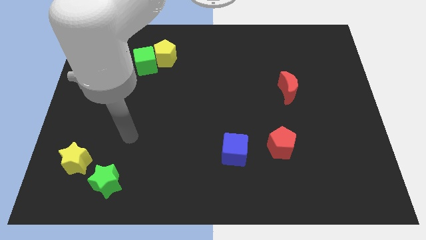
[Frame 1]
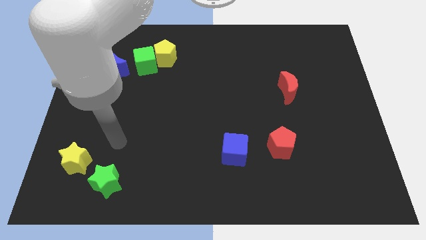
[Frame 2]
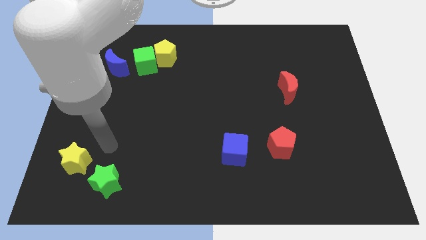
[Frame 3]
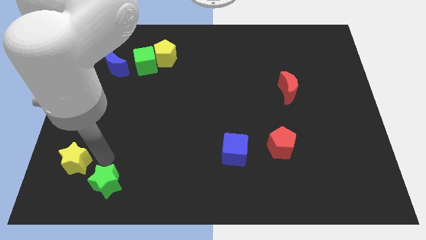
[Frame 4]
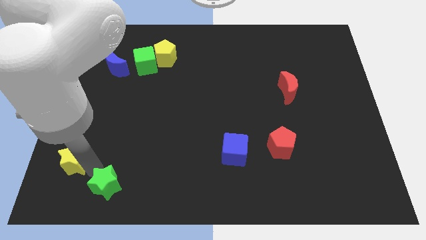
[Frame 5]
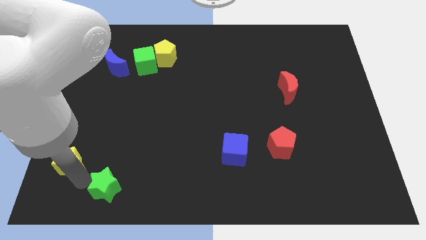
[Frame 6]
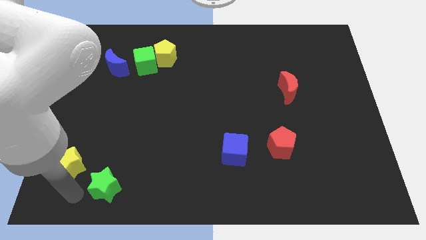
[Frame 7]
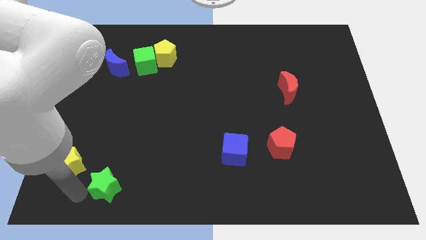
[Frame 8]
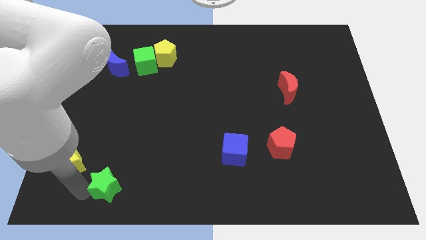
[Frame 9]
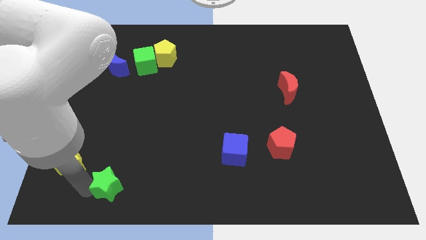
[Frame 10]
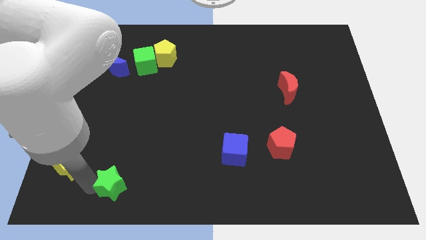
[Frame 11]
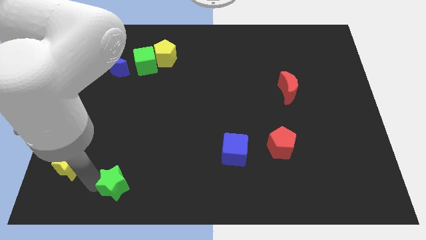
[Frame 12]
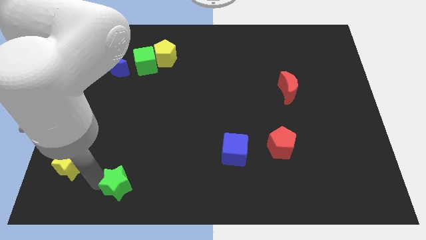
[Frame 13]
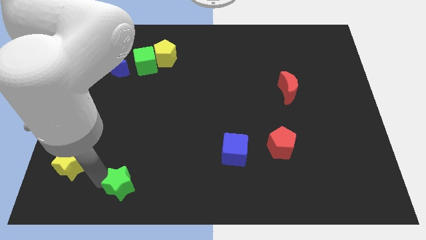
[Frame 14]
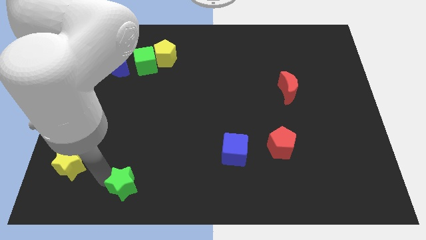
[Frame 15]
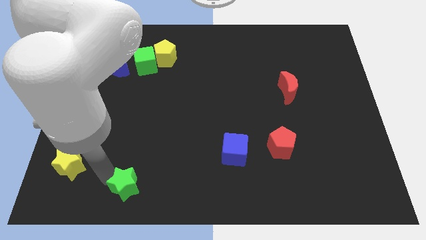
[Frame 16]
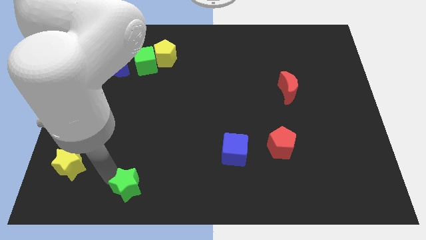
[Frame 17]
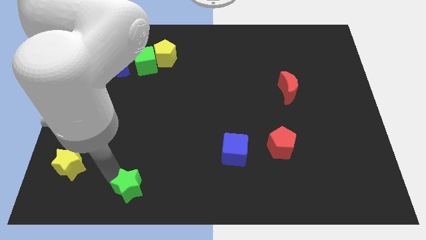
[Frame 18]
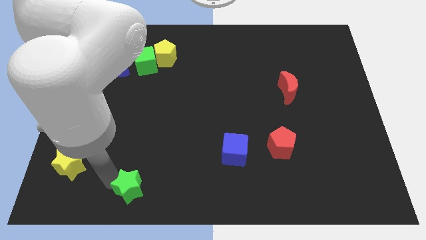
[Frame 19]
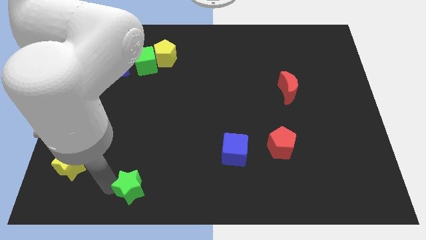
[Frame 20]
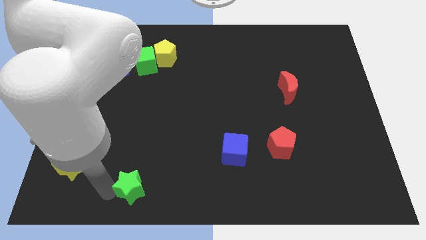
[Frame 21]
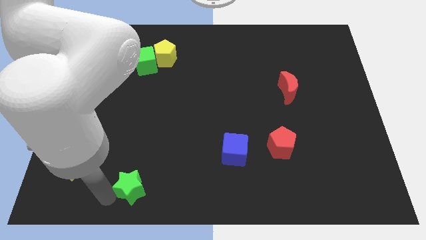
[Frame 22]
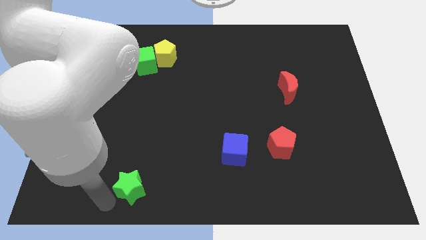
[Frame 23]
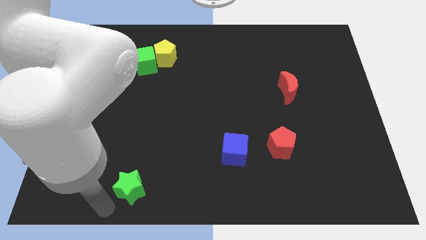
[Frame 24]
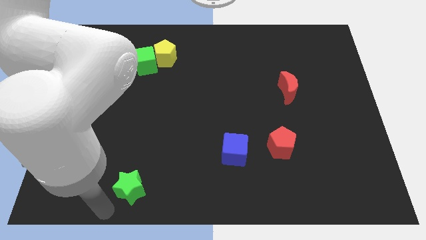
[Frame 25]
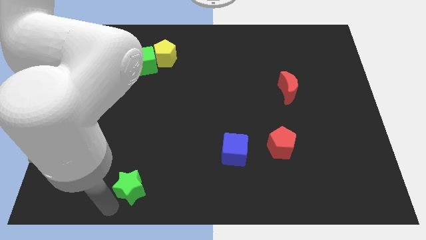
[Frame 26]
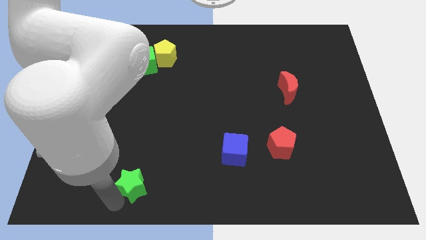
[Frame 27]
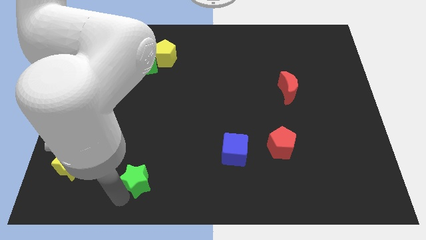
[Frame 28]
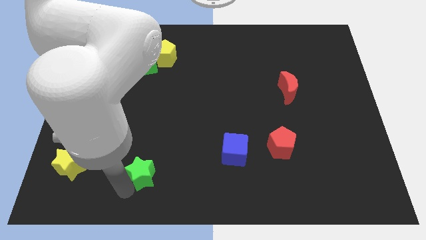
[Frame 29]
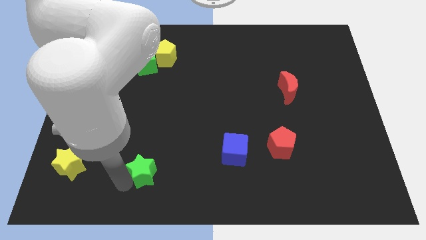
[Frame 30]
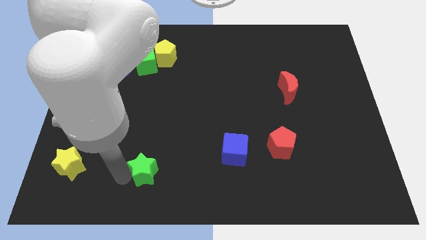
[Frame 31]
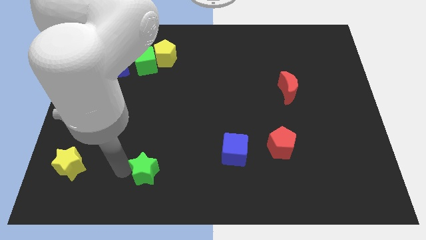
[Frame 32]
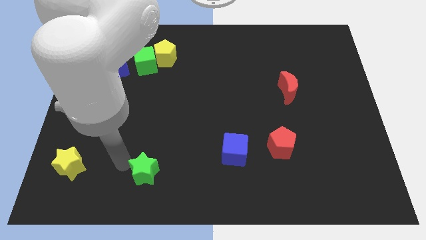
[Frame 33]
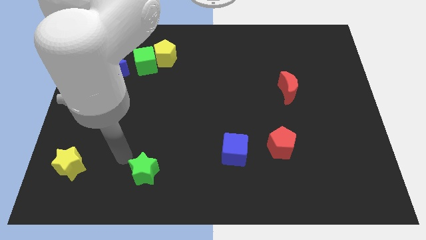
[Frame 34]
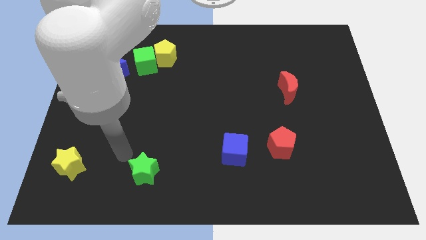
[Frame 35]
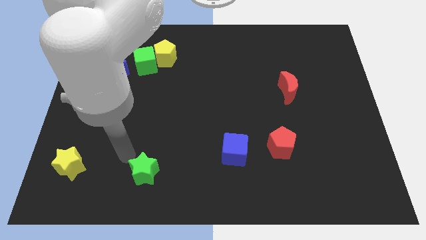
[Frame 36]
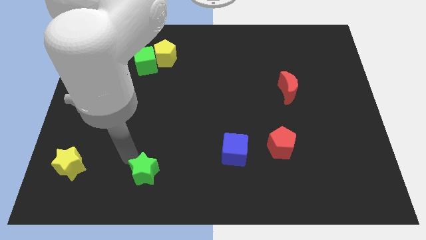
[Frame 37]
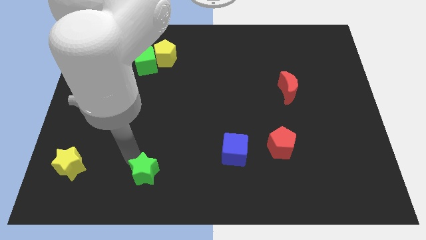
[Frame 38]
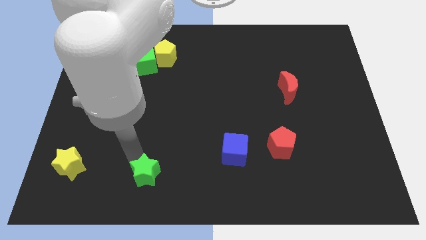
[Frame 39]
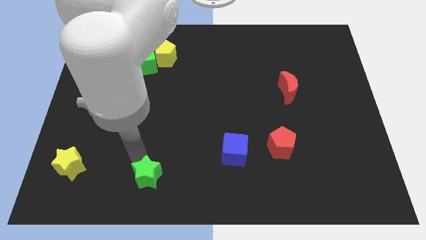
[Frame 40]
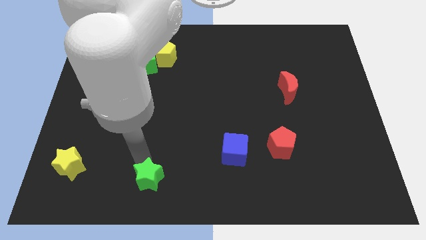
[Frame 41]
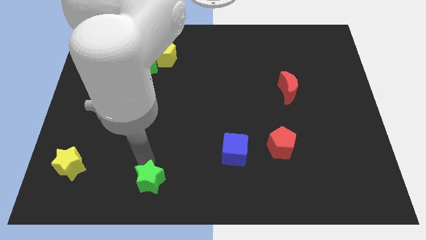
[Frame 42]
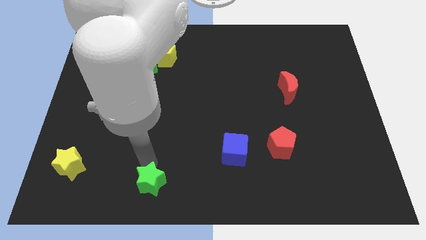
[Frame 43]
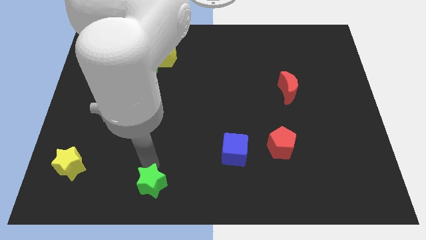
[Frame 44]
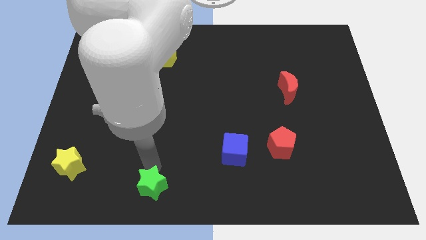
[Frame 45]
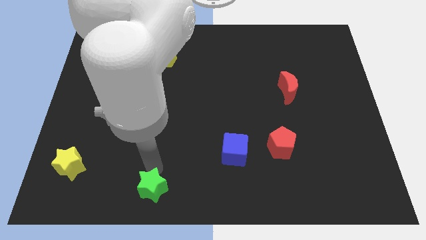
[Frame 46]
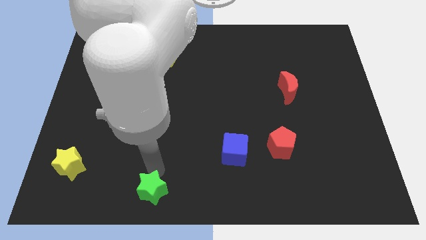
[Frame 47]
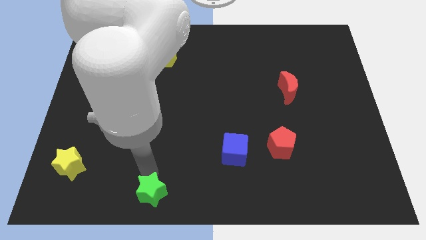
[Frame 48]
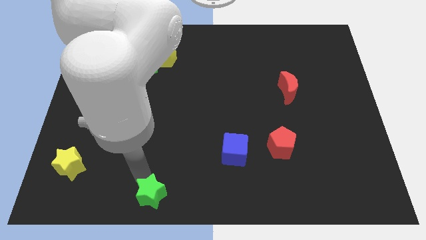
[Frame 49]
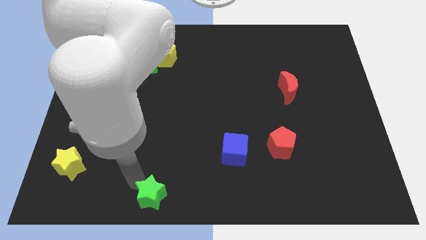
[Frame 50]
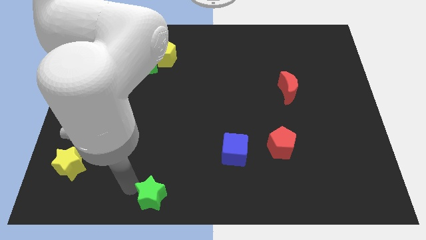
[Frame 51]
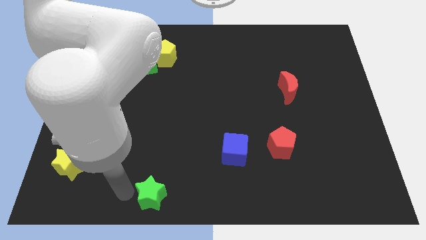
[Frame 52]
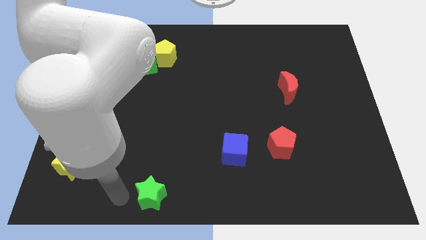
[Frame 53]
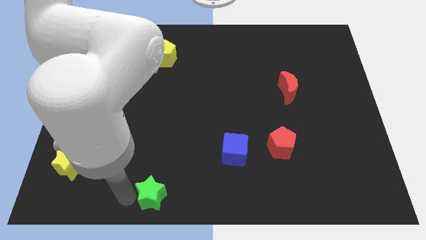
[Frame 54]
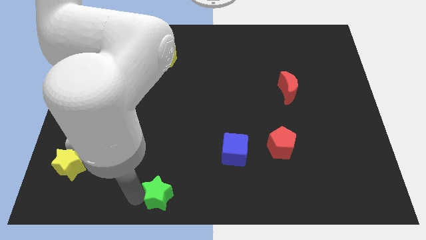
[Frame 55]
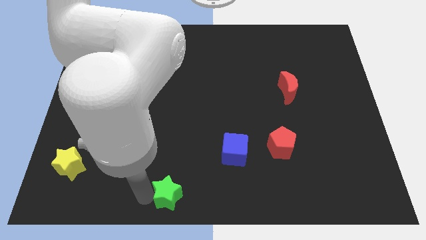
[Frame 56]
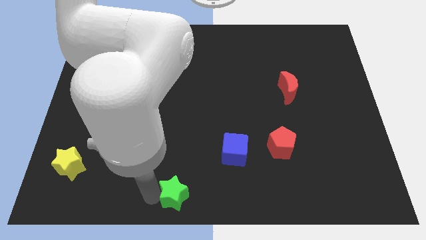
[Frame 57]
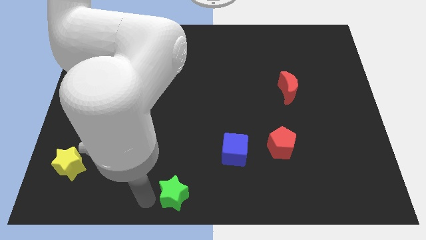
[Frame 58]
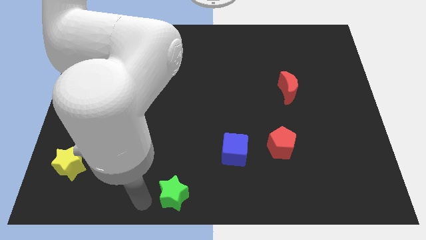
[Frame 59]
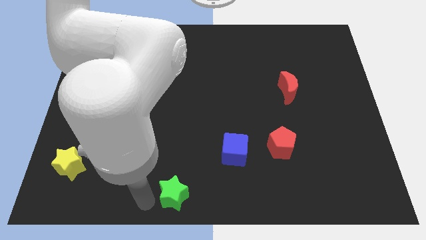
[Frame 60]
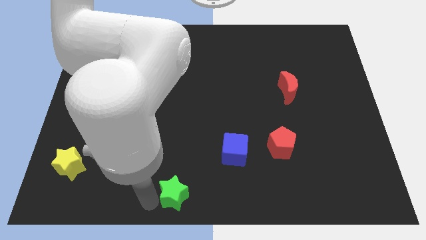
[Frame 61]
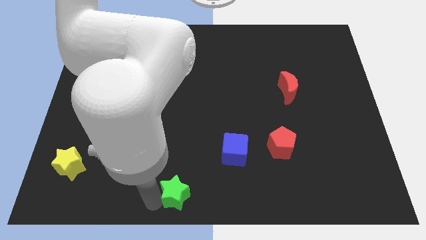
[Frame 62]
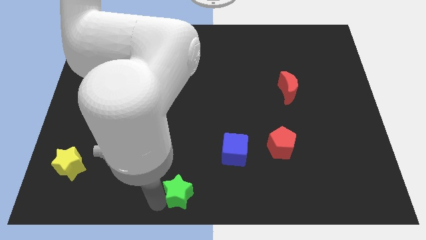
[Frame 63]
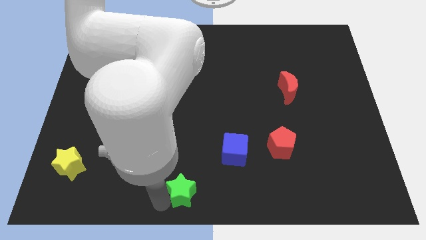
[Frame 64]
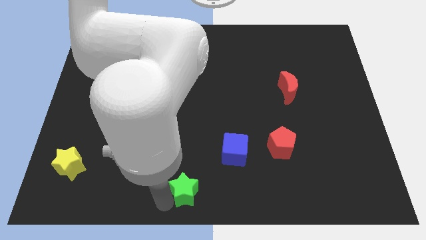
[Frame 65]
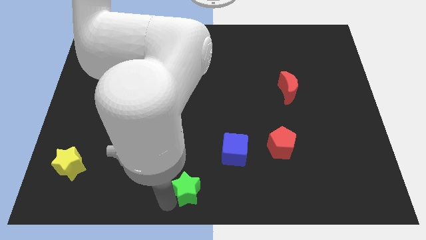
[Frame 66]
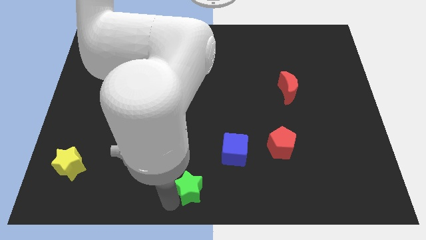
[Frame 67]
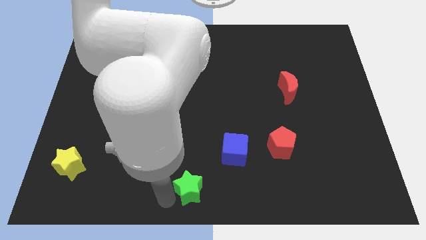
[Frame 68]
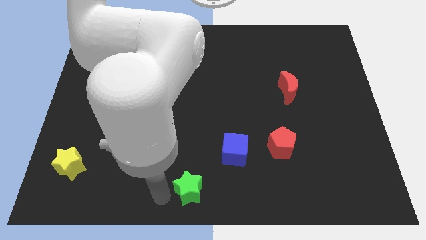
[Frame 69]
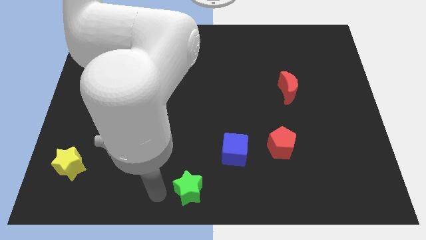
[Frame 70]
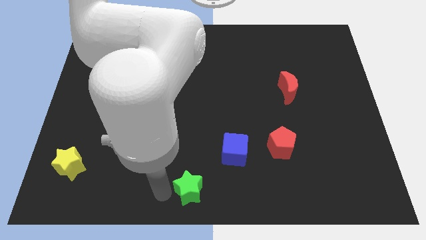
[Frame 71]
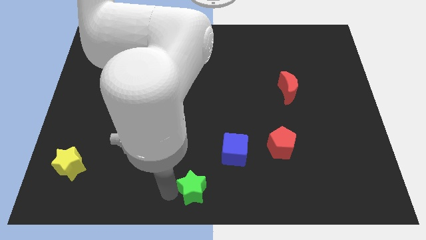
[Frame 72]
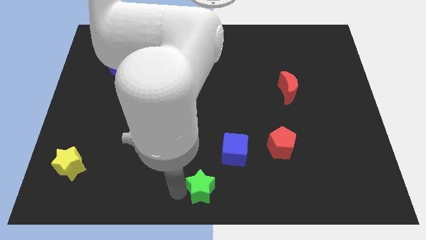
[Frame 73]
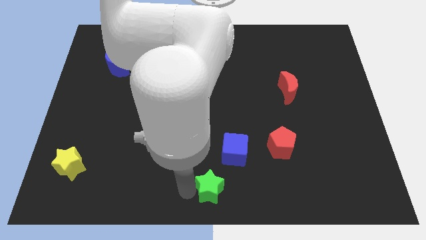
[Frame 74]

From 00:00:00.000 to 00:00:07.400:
push the green star right
